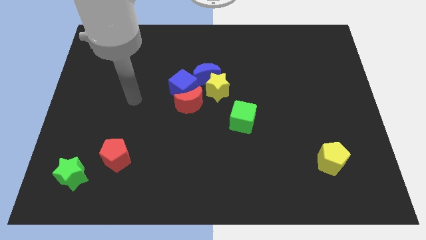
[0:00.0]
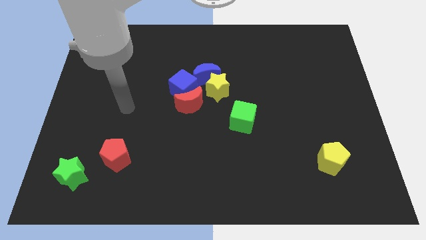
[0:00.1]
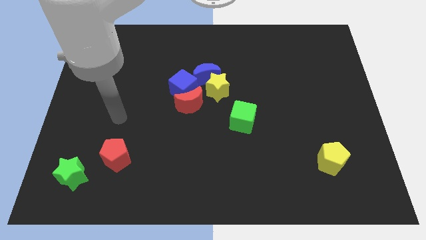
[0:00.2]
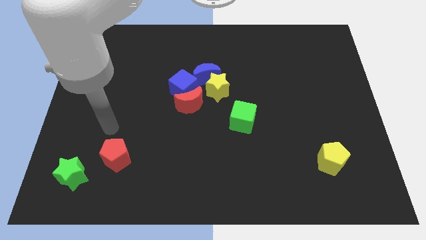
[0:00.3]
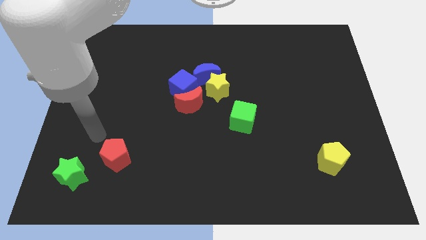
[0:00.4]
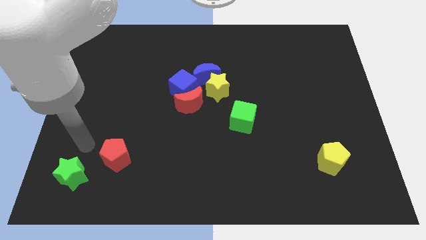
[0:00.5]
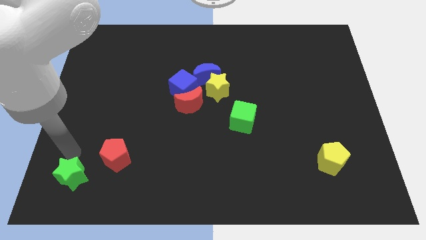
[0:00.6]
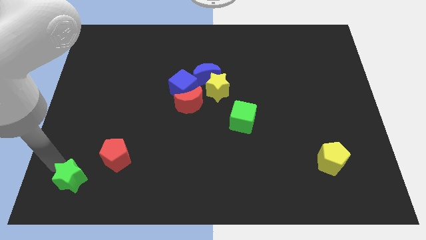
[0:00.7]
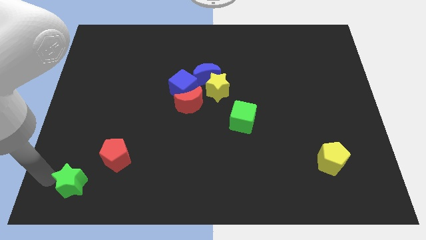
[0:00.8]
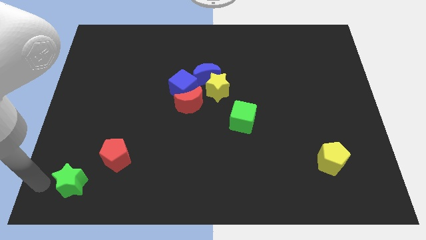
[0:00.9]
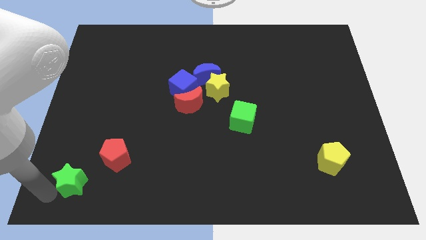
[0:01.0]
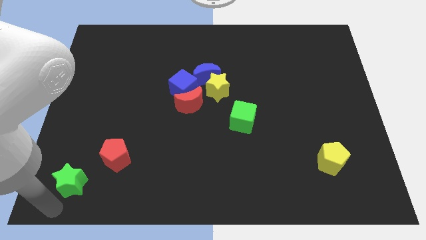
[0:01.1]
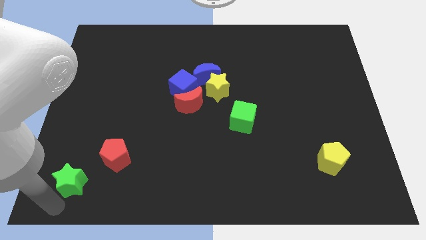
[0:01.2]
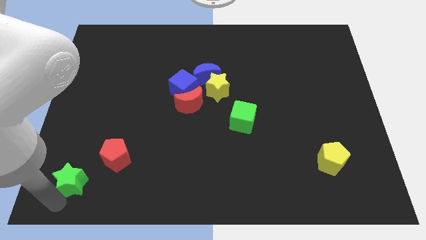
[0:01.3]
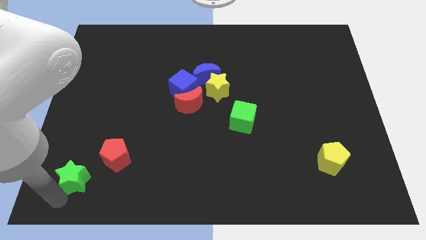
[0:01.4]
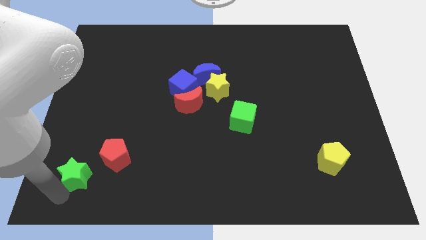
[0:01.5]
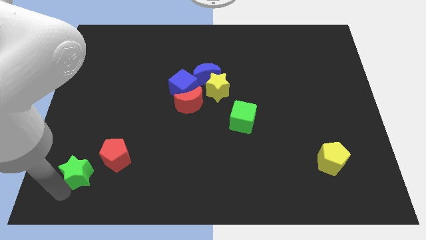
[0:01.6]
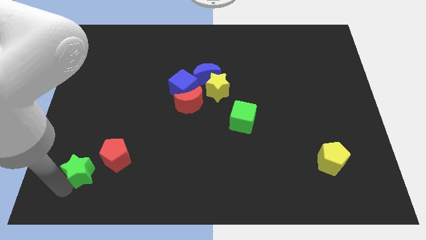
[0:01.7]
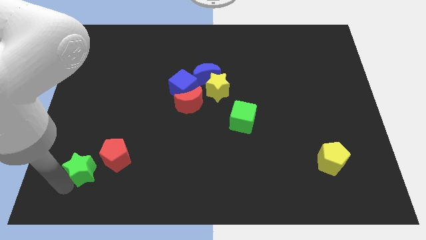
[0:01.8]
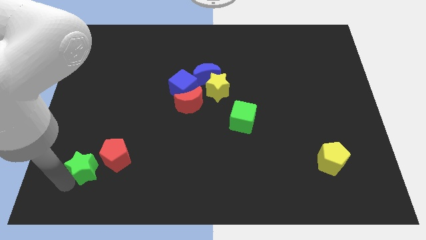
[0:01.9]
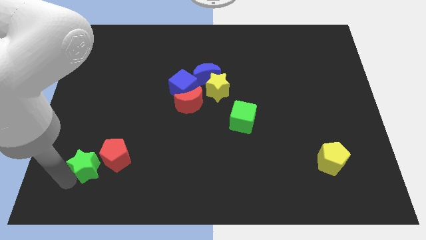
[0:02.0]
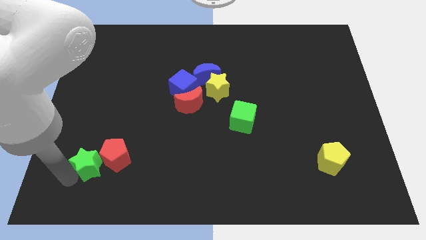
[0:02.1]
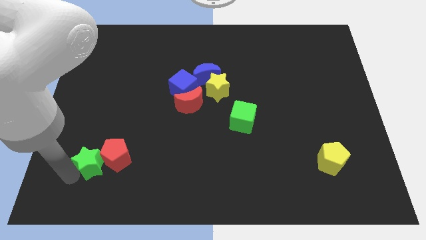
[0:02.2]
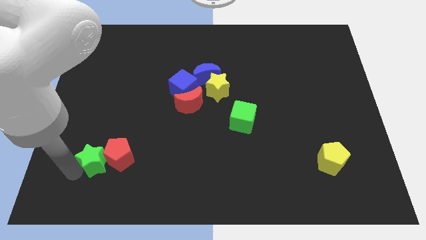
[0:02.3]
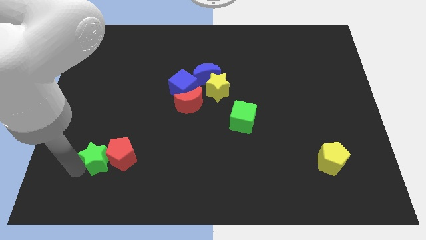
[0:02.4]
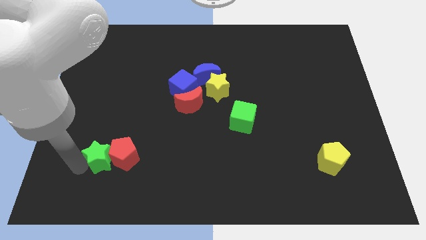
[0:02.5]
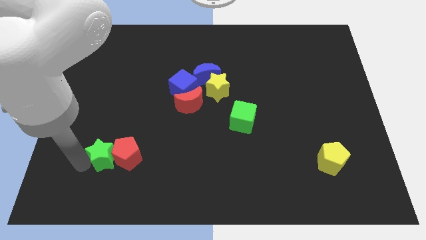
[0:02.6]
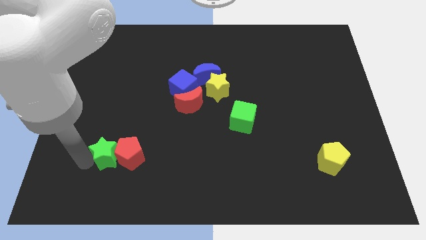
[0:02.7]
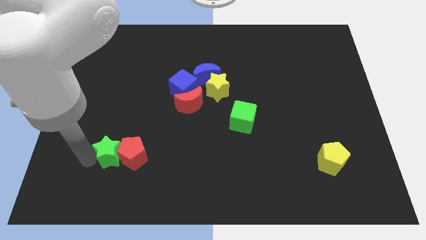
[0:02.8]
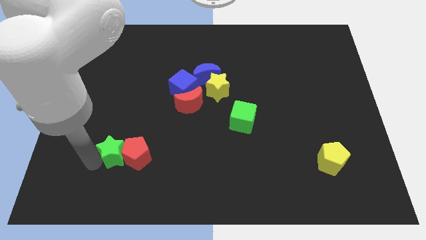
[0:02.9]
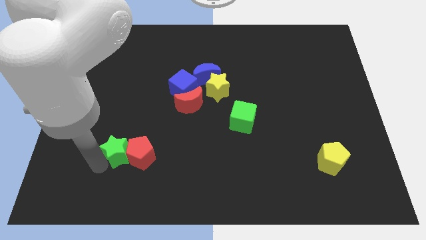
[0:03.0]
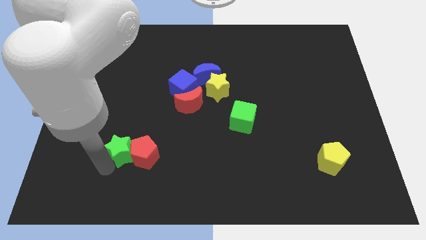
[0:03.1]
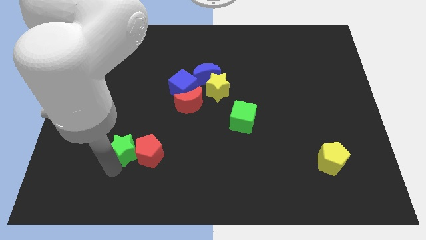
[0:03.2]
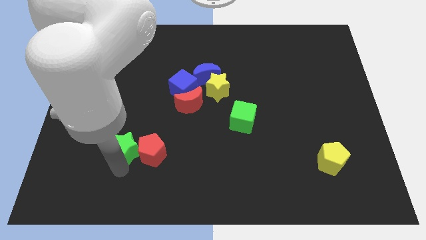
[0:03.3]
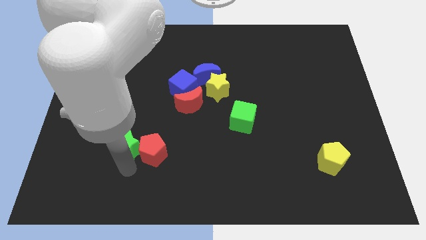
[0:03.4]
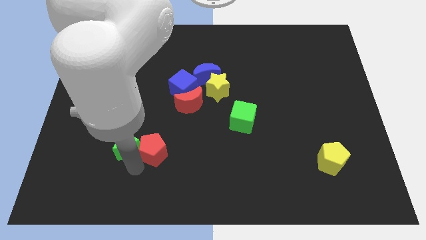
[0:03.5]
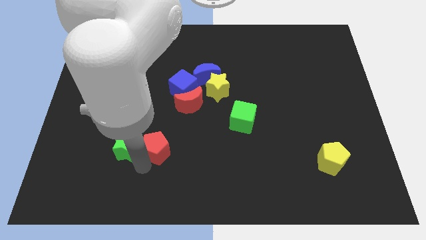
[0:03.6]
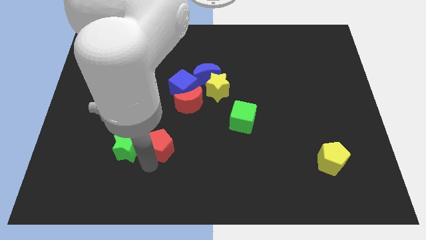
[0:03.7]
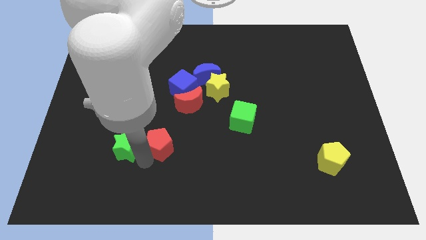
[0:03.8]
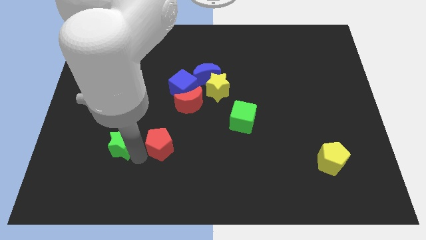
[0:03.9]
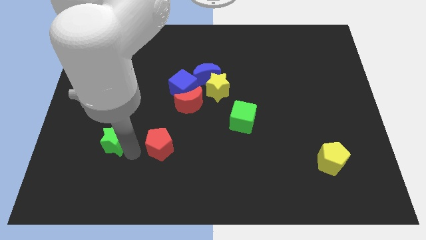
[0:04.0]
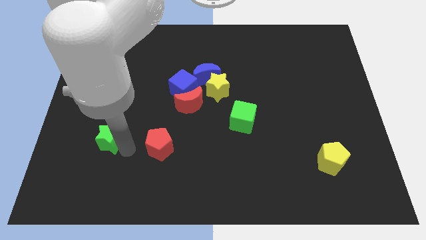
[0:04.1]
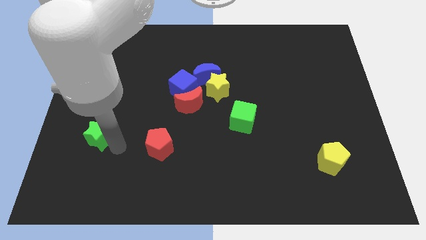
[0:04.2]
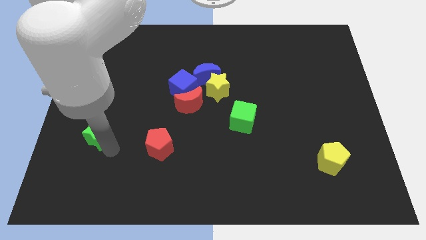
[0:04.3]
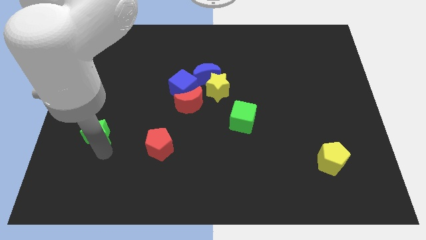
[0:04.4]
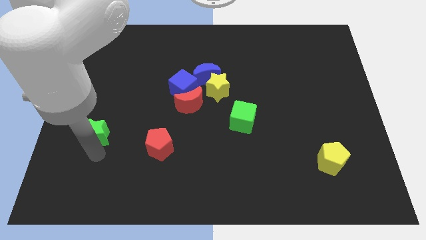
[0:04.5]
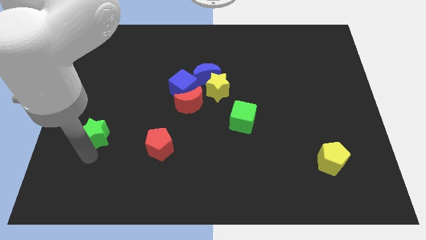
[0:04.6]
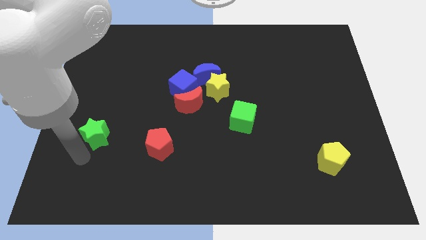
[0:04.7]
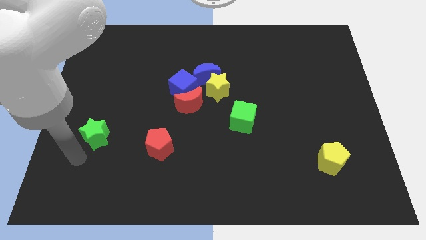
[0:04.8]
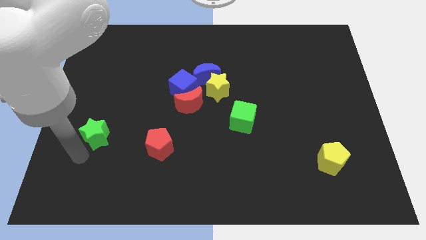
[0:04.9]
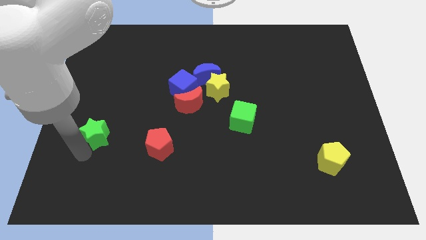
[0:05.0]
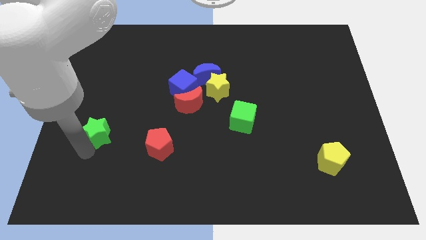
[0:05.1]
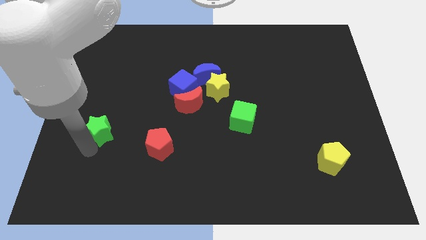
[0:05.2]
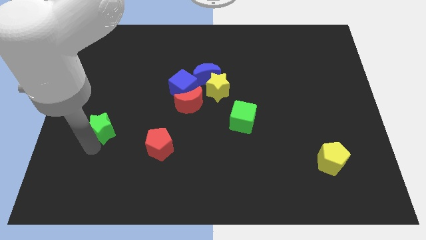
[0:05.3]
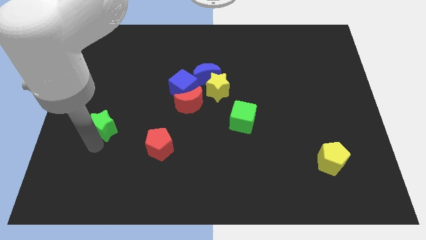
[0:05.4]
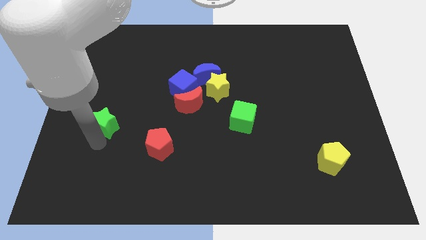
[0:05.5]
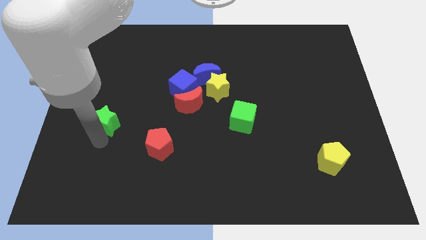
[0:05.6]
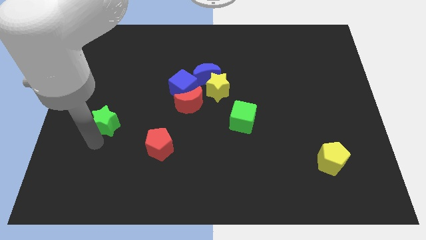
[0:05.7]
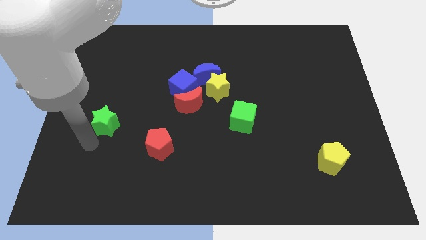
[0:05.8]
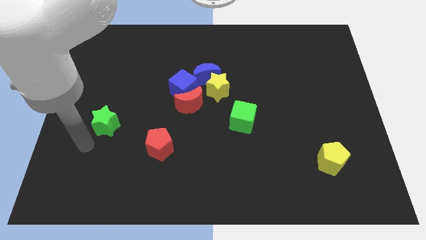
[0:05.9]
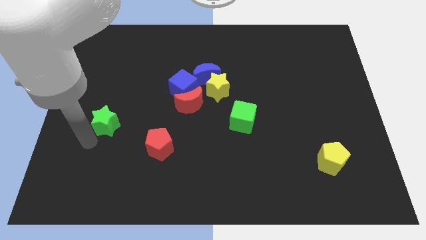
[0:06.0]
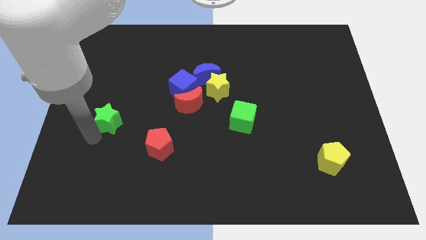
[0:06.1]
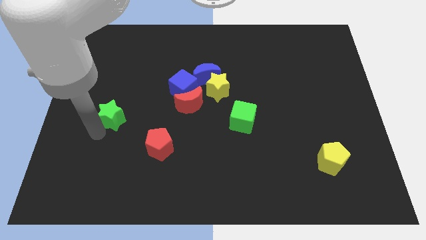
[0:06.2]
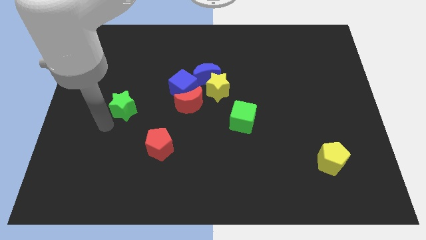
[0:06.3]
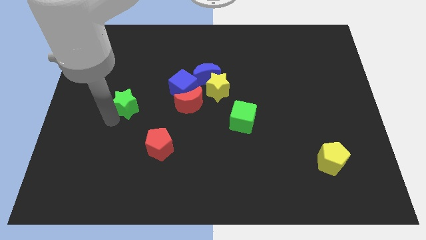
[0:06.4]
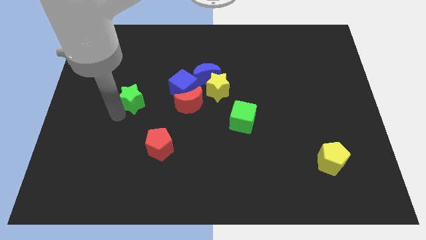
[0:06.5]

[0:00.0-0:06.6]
move the green star to the left of the blue cube
